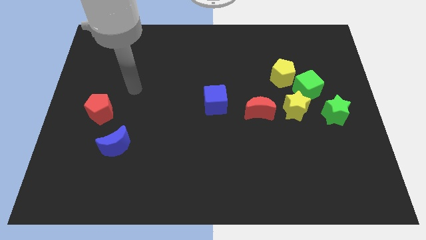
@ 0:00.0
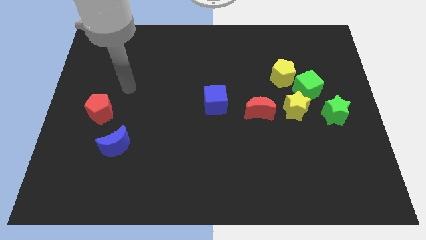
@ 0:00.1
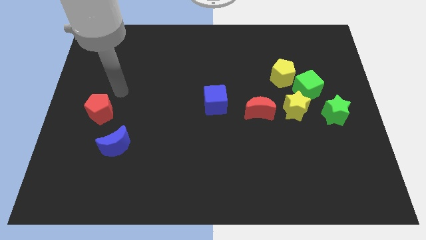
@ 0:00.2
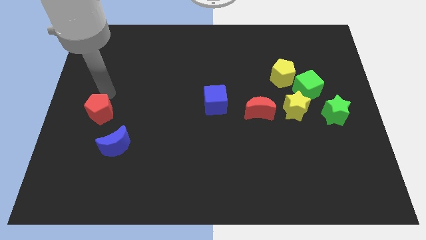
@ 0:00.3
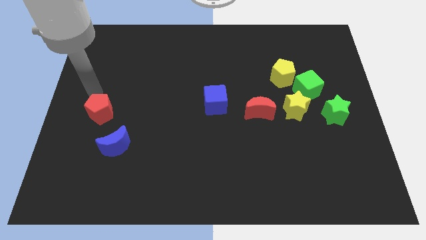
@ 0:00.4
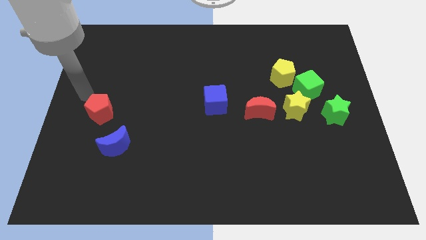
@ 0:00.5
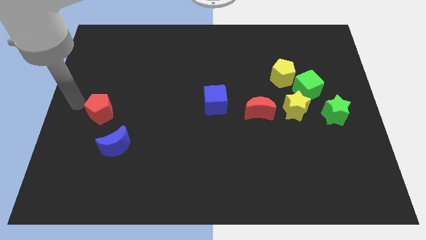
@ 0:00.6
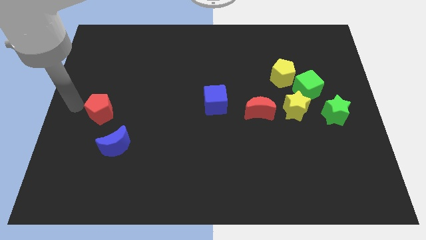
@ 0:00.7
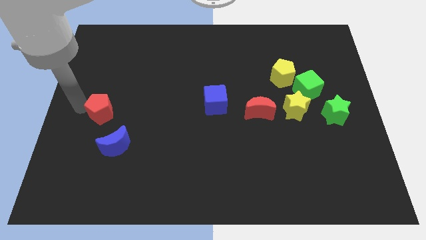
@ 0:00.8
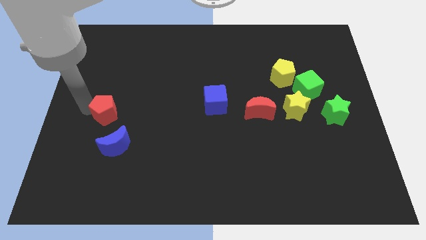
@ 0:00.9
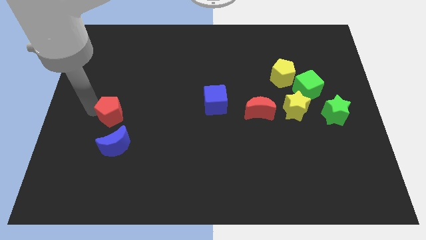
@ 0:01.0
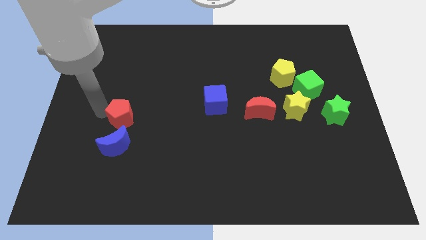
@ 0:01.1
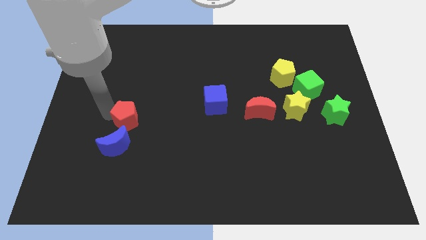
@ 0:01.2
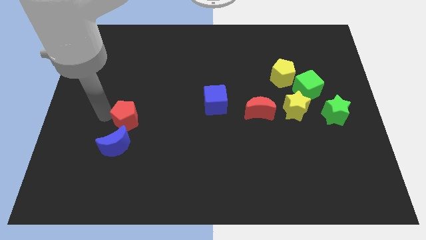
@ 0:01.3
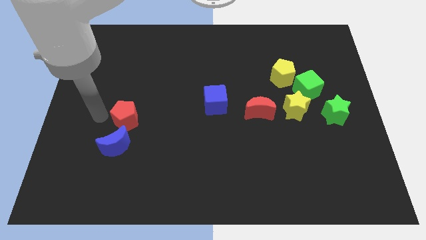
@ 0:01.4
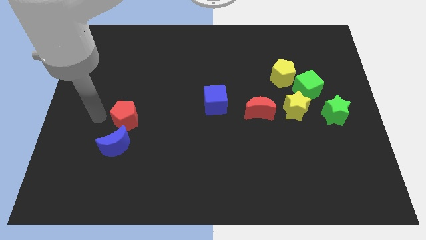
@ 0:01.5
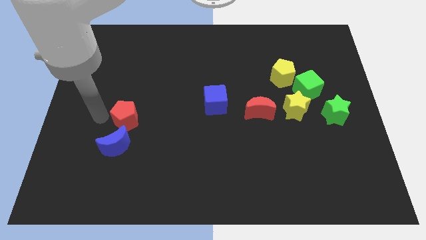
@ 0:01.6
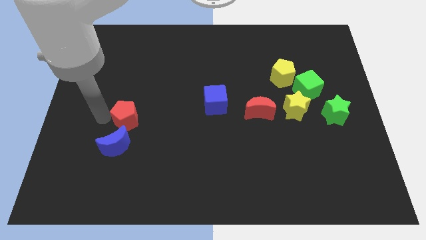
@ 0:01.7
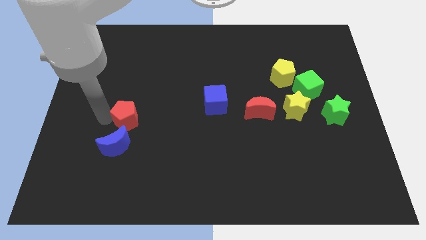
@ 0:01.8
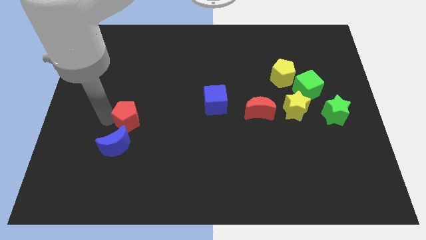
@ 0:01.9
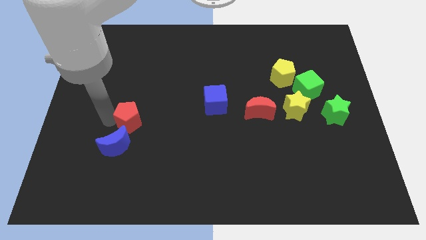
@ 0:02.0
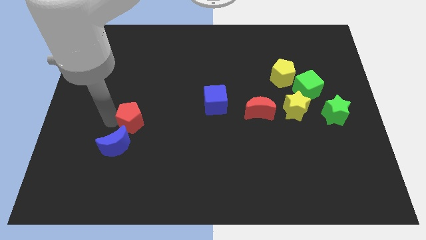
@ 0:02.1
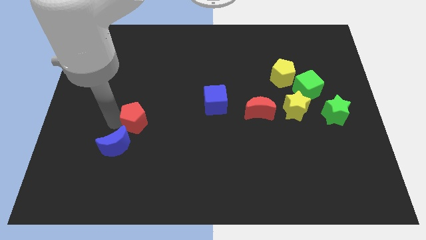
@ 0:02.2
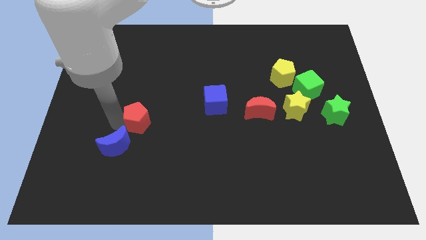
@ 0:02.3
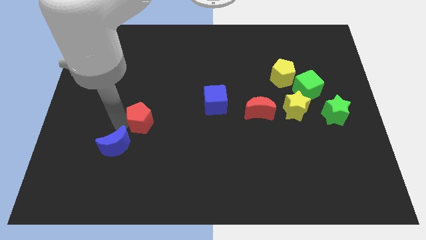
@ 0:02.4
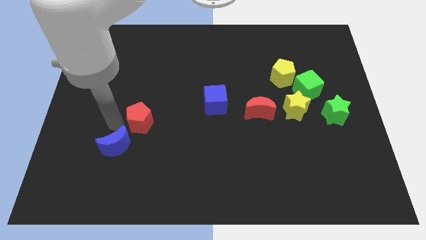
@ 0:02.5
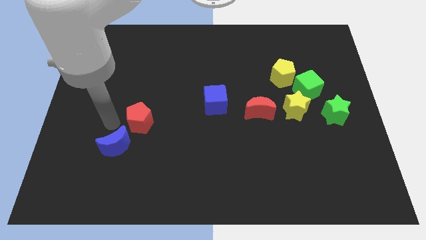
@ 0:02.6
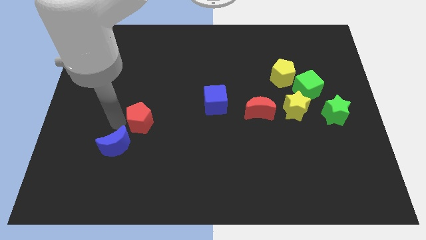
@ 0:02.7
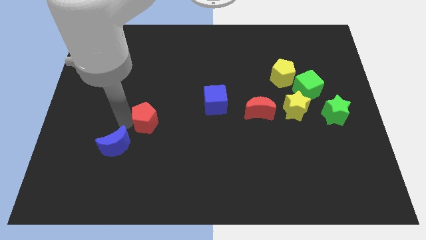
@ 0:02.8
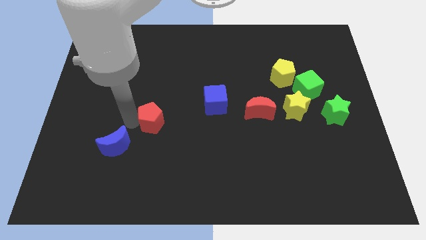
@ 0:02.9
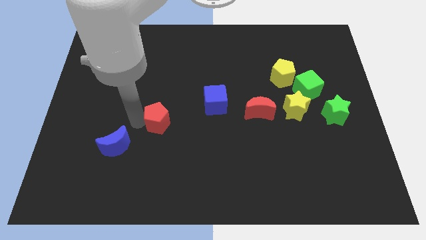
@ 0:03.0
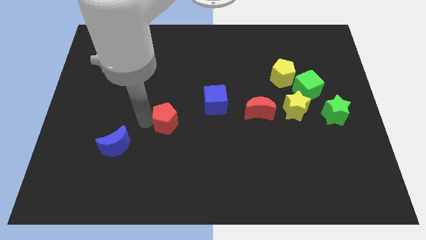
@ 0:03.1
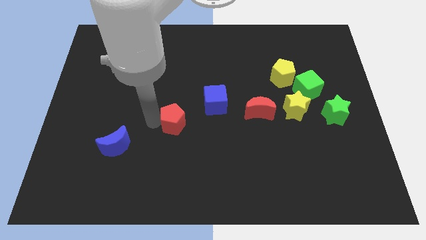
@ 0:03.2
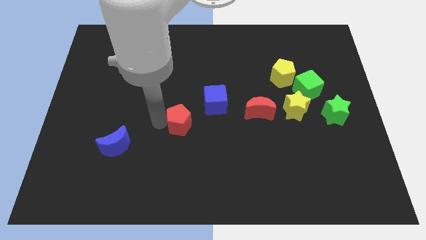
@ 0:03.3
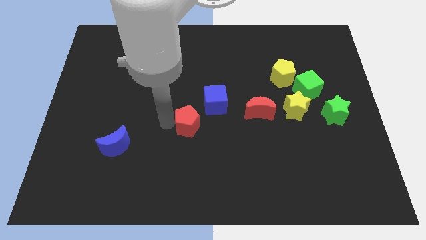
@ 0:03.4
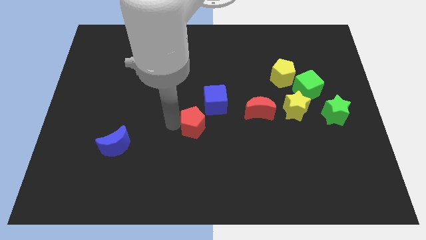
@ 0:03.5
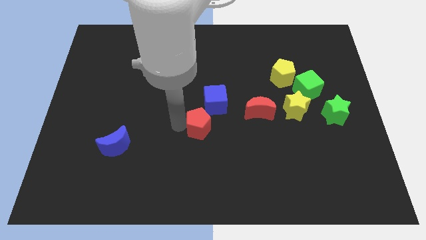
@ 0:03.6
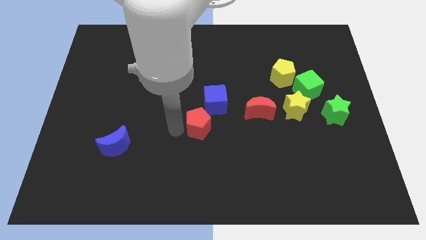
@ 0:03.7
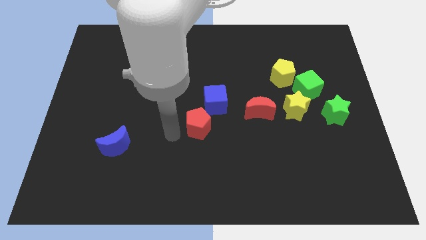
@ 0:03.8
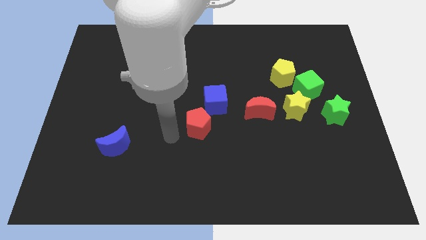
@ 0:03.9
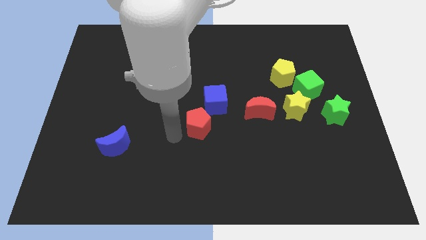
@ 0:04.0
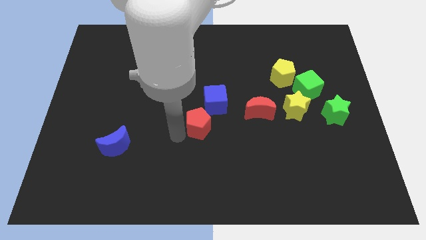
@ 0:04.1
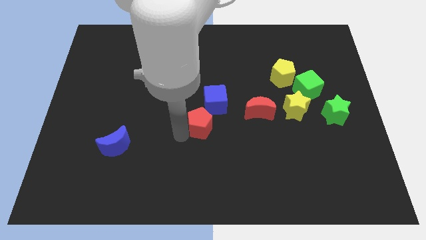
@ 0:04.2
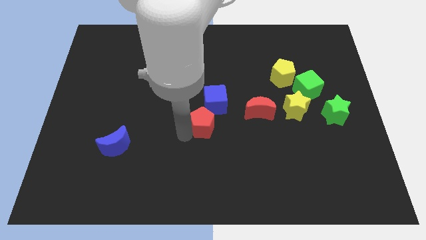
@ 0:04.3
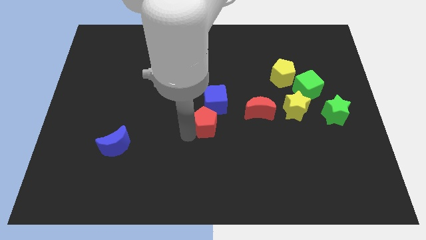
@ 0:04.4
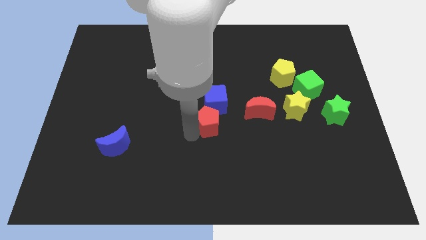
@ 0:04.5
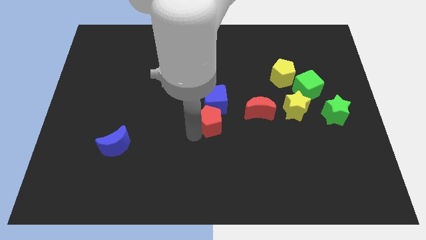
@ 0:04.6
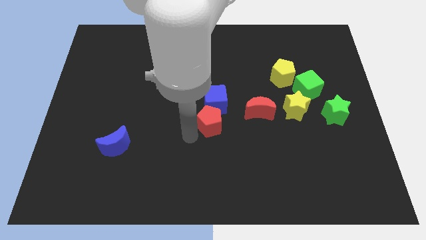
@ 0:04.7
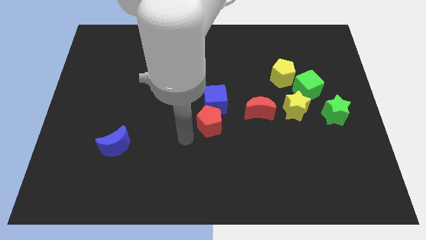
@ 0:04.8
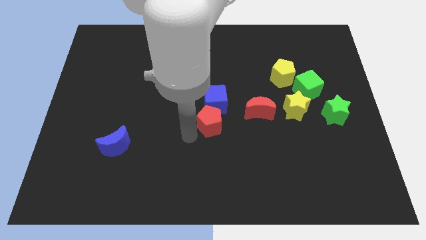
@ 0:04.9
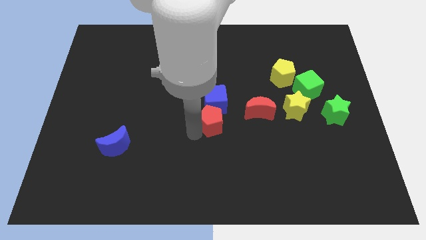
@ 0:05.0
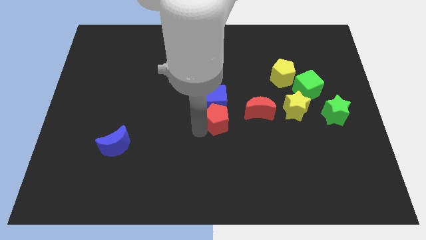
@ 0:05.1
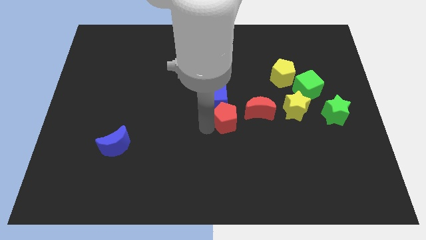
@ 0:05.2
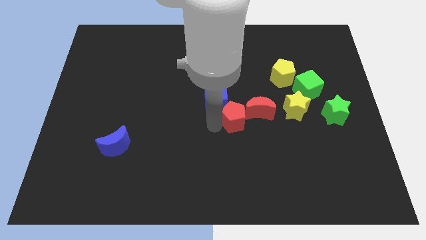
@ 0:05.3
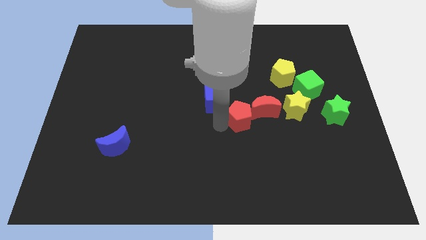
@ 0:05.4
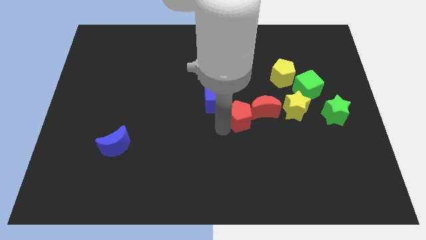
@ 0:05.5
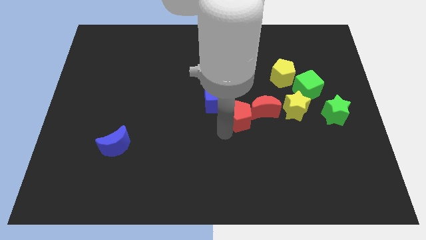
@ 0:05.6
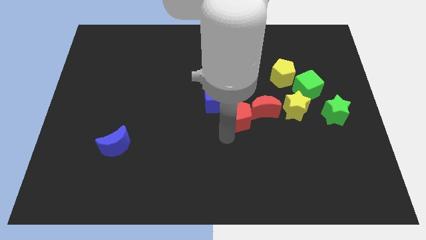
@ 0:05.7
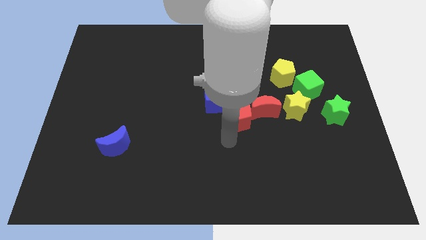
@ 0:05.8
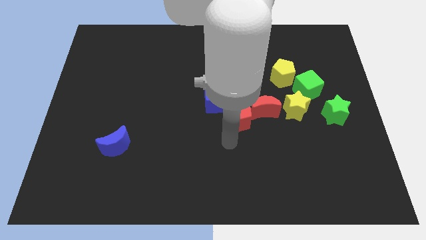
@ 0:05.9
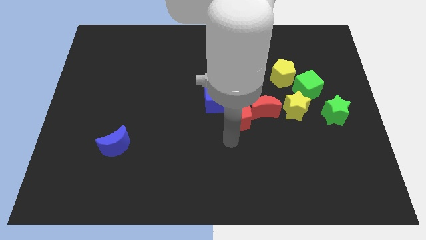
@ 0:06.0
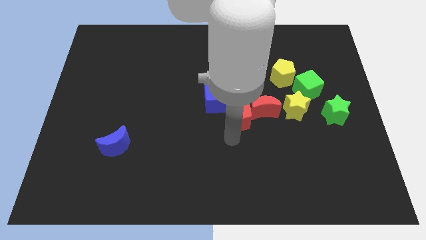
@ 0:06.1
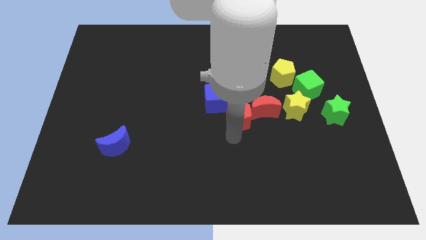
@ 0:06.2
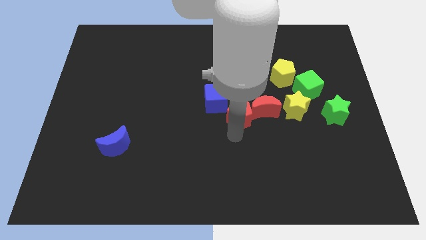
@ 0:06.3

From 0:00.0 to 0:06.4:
put the red pentagon towards the red moon

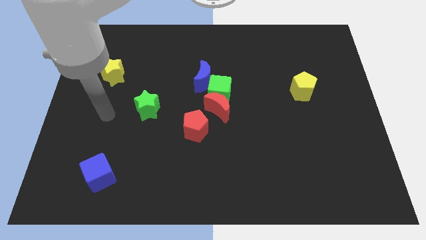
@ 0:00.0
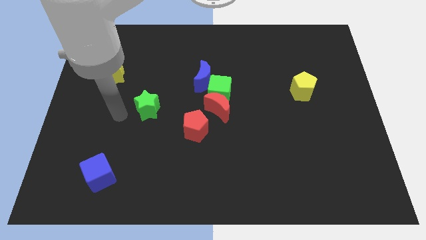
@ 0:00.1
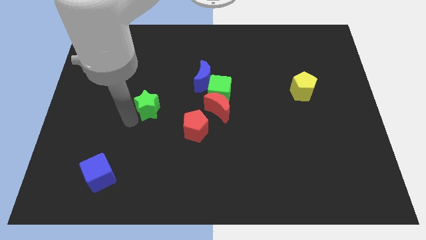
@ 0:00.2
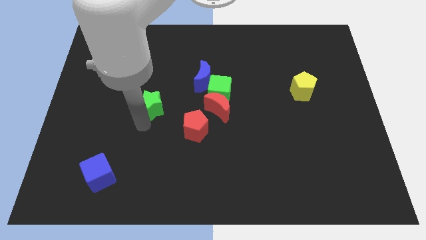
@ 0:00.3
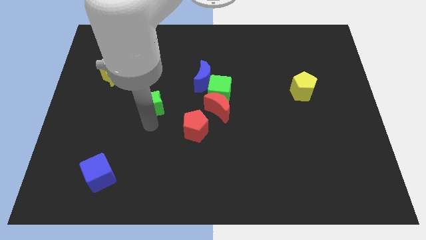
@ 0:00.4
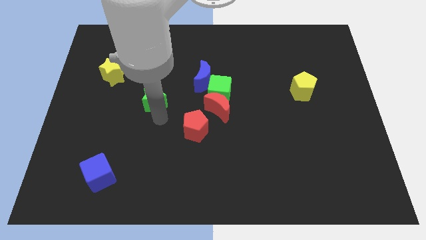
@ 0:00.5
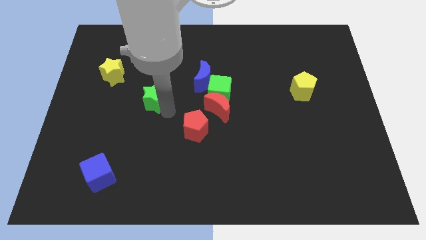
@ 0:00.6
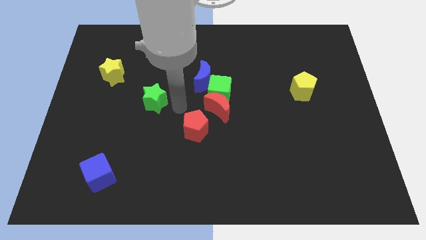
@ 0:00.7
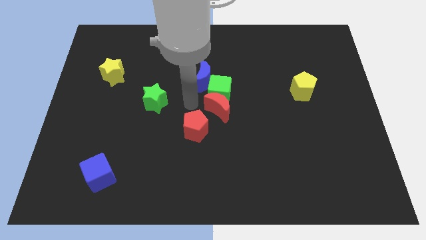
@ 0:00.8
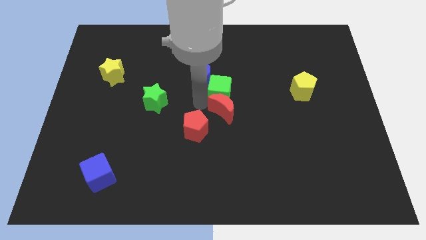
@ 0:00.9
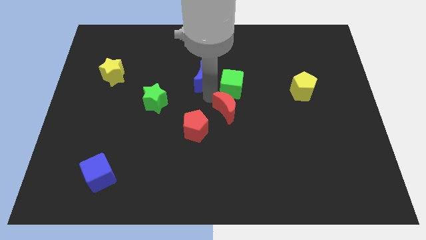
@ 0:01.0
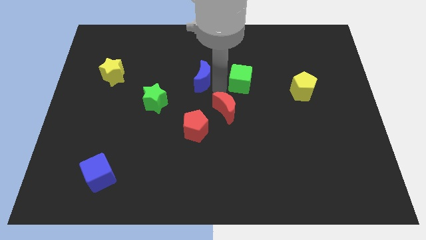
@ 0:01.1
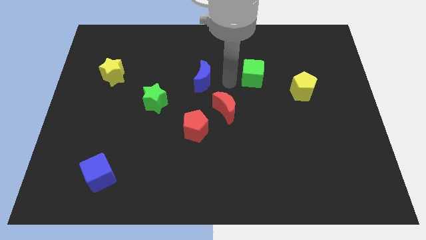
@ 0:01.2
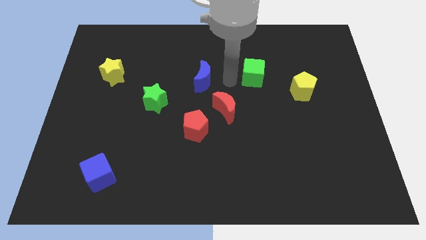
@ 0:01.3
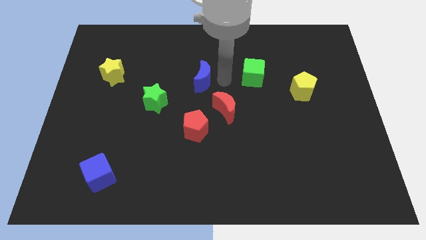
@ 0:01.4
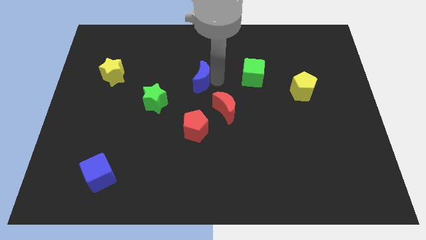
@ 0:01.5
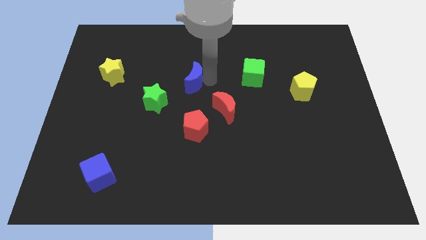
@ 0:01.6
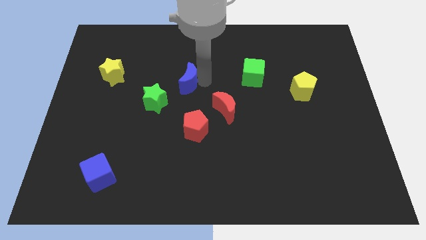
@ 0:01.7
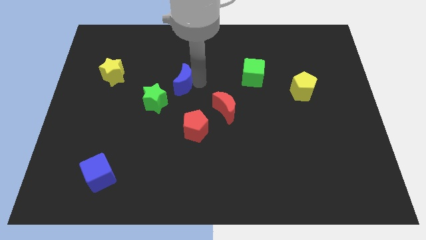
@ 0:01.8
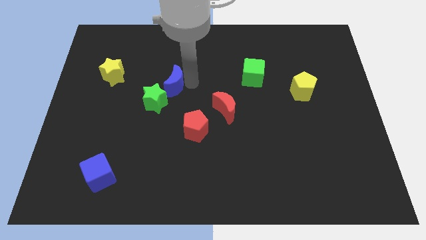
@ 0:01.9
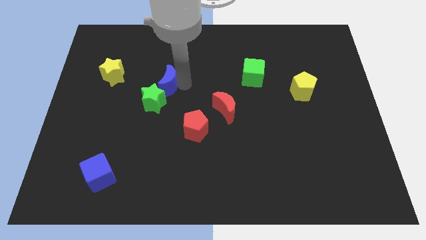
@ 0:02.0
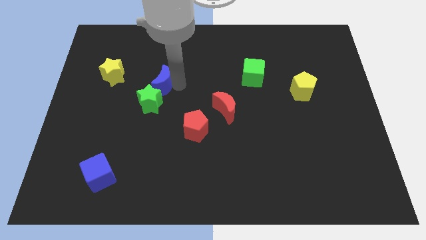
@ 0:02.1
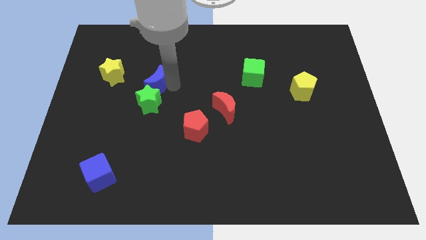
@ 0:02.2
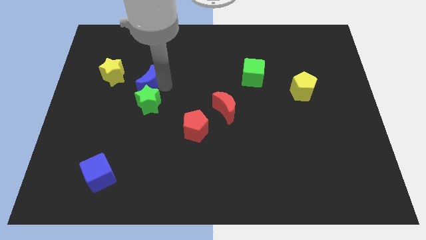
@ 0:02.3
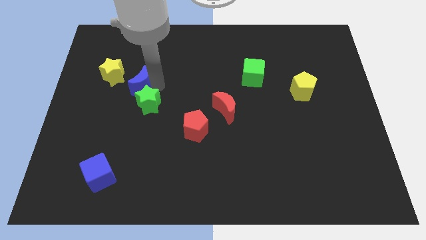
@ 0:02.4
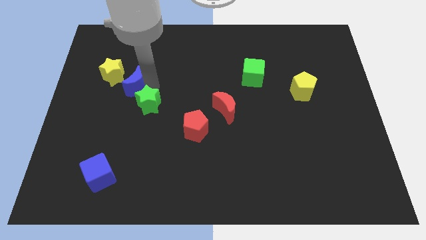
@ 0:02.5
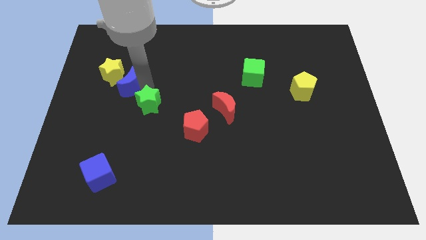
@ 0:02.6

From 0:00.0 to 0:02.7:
push the blue moon close to the yellow star
